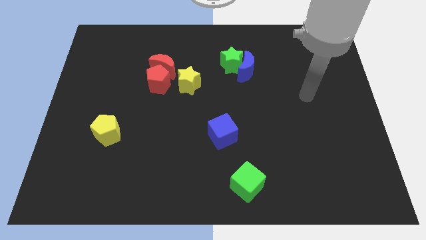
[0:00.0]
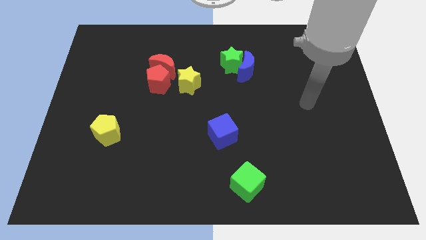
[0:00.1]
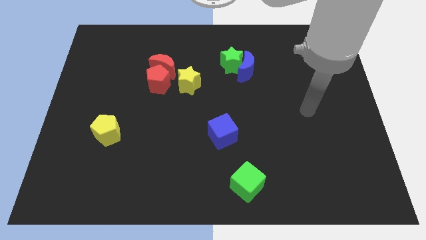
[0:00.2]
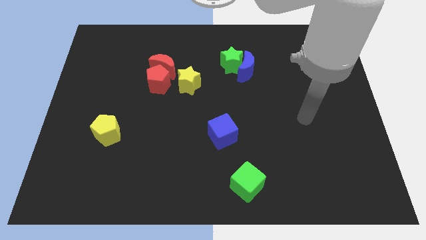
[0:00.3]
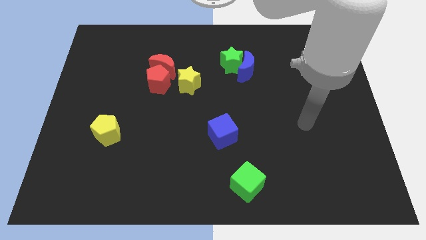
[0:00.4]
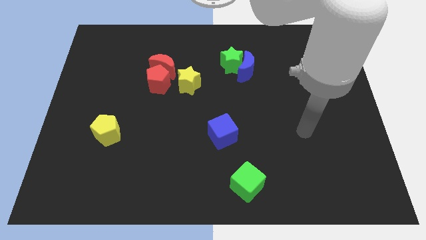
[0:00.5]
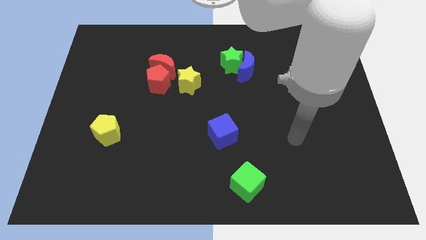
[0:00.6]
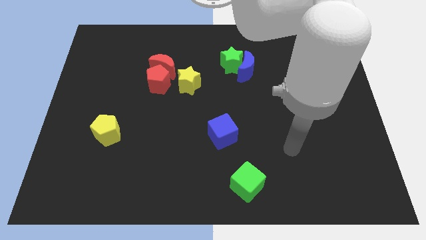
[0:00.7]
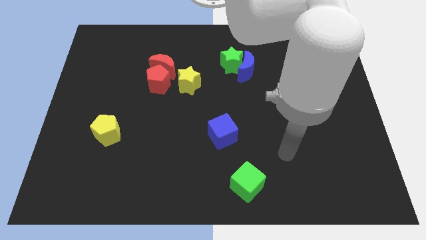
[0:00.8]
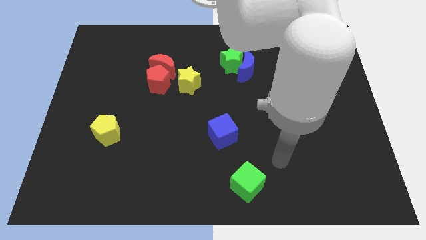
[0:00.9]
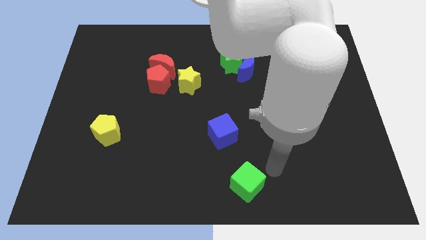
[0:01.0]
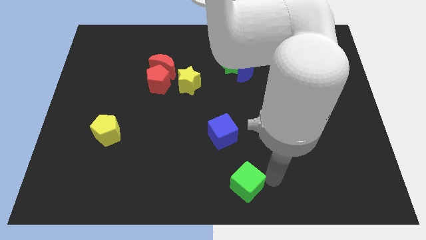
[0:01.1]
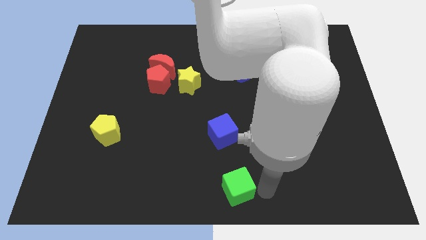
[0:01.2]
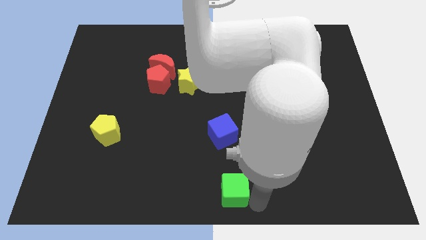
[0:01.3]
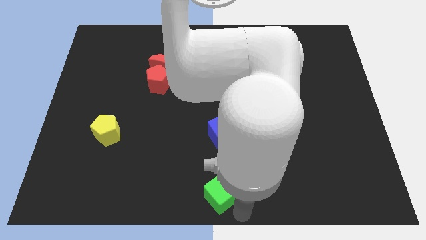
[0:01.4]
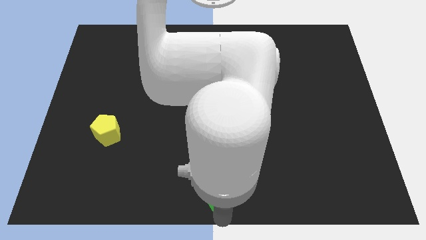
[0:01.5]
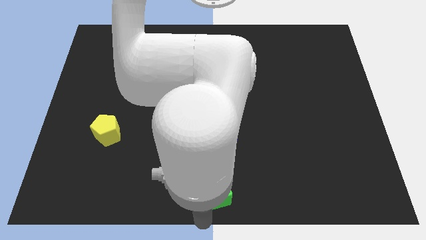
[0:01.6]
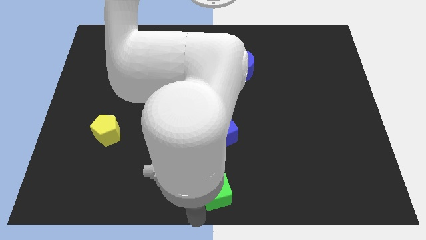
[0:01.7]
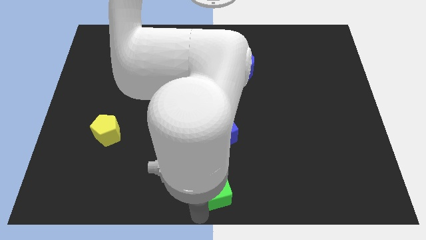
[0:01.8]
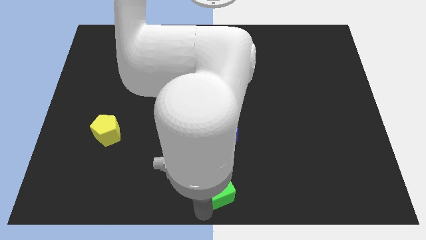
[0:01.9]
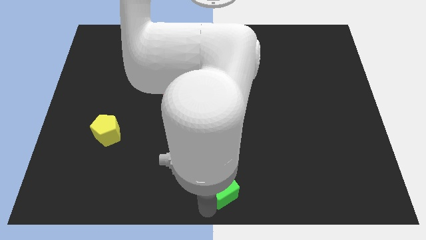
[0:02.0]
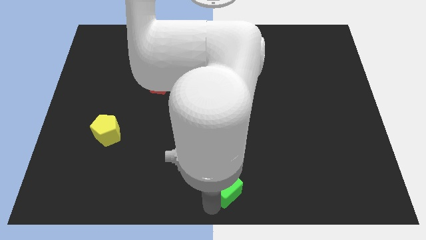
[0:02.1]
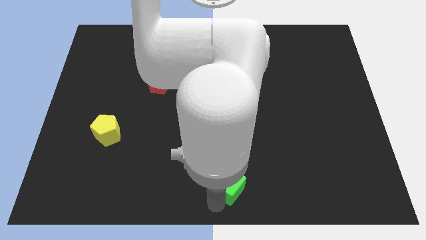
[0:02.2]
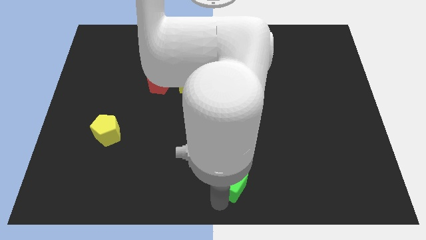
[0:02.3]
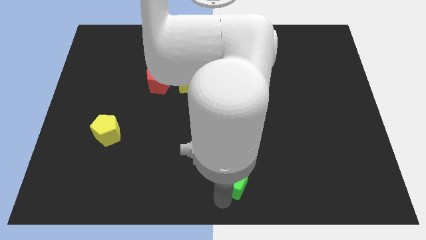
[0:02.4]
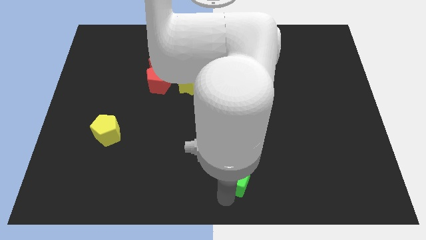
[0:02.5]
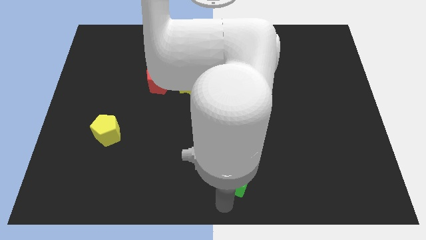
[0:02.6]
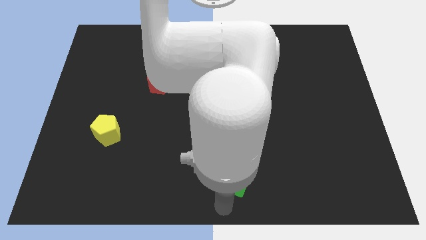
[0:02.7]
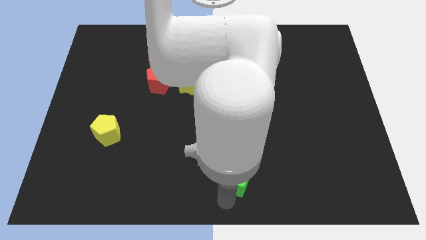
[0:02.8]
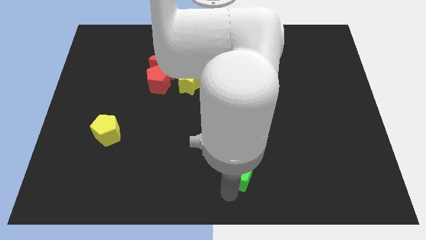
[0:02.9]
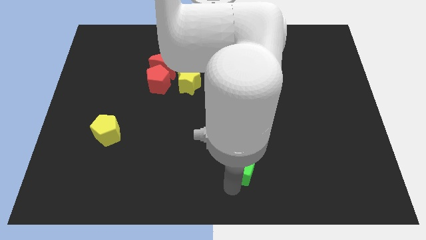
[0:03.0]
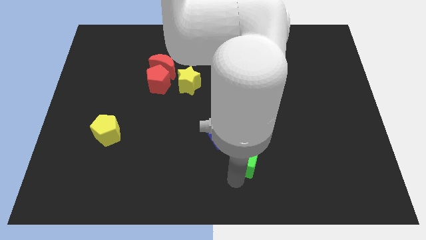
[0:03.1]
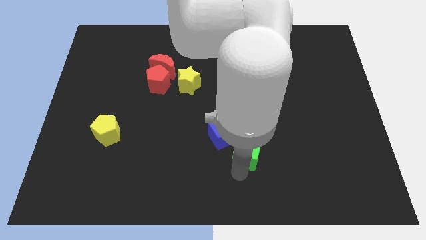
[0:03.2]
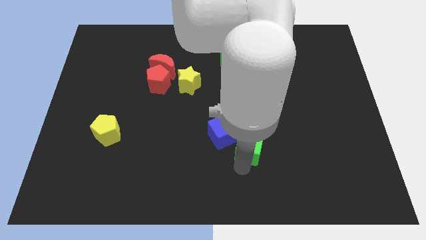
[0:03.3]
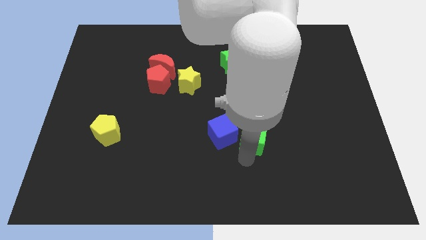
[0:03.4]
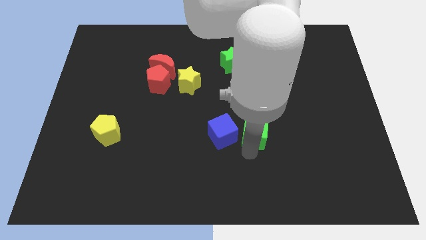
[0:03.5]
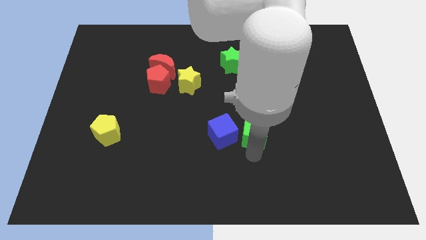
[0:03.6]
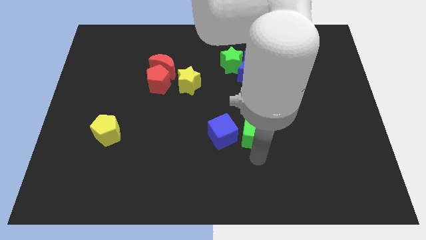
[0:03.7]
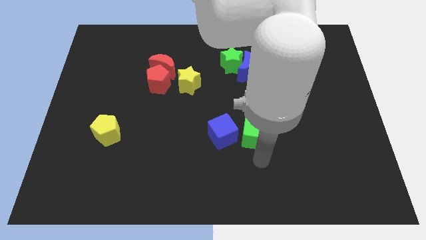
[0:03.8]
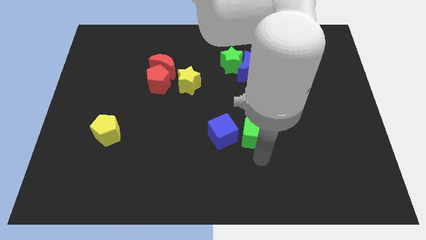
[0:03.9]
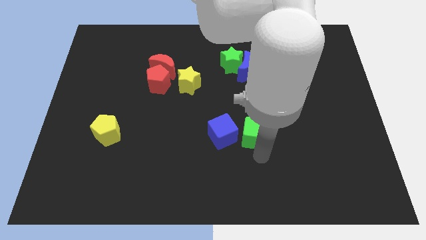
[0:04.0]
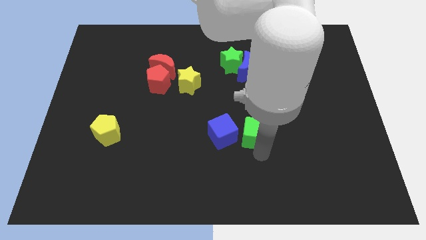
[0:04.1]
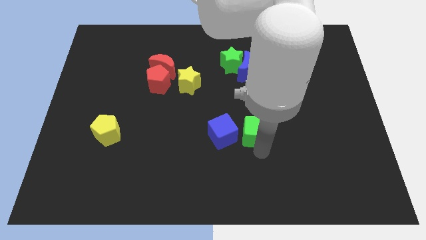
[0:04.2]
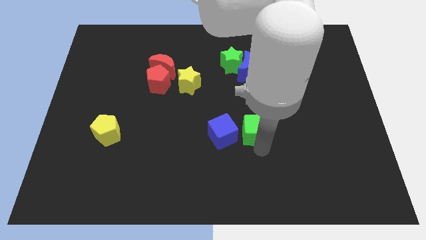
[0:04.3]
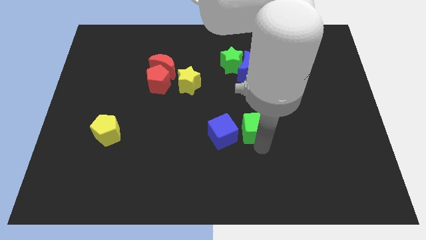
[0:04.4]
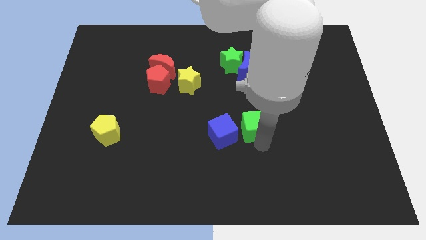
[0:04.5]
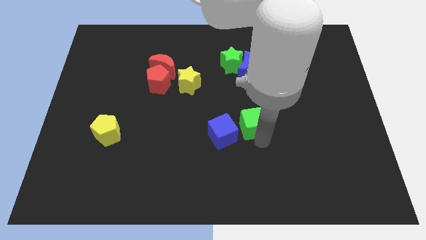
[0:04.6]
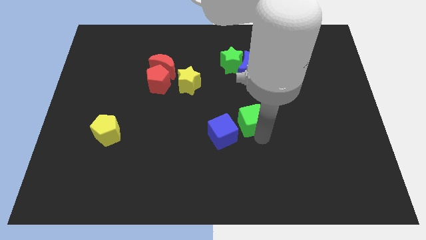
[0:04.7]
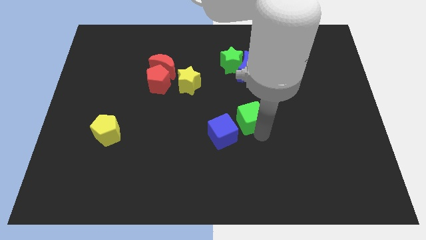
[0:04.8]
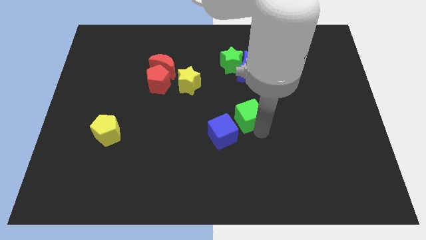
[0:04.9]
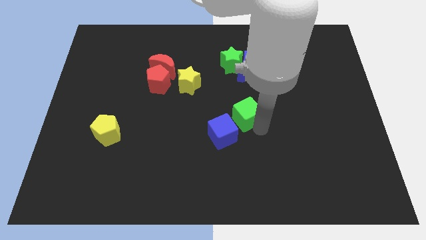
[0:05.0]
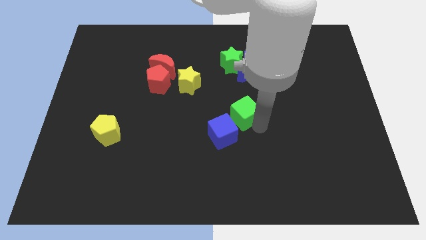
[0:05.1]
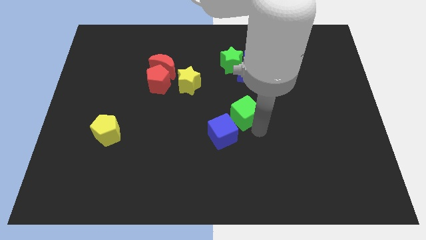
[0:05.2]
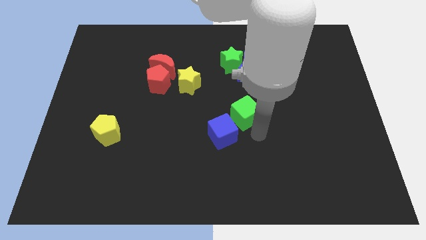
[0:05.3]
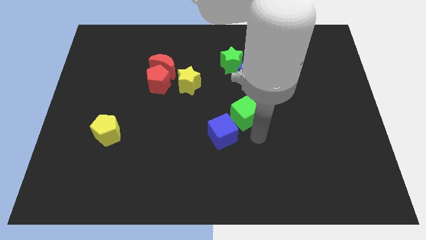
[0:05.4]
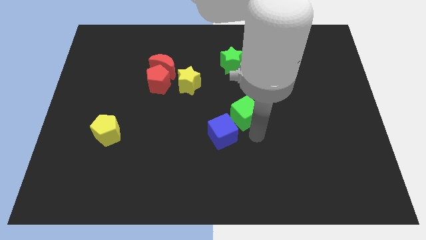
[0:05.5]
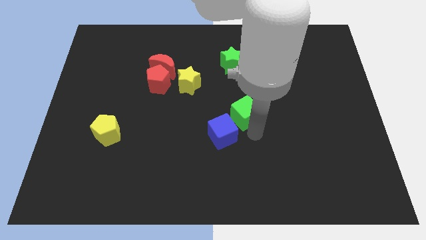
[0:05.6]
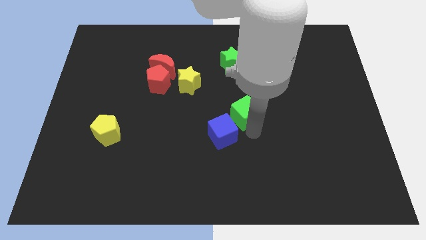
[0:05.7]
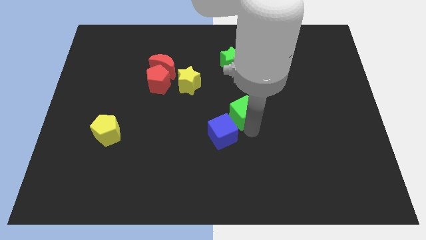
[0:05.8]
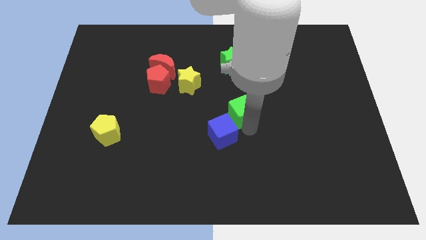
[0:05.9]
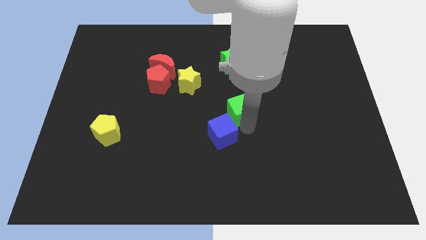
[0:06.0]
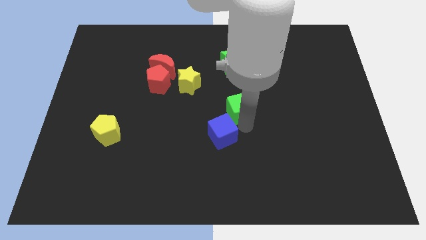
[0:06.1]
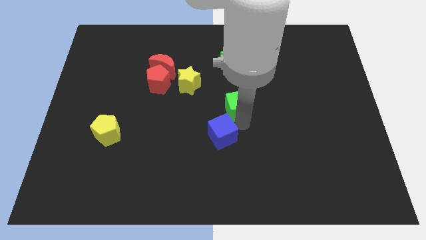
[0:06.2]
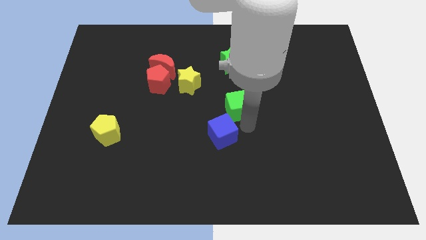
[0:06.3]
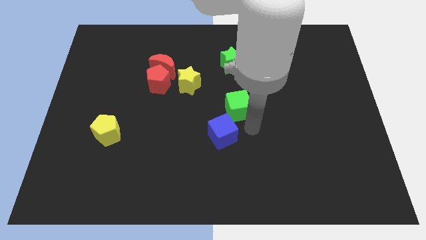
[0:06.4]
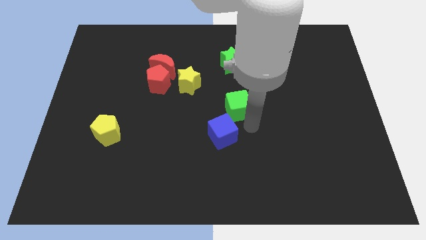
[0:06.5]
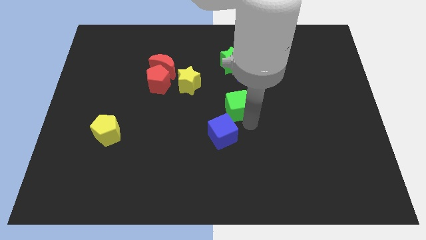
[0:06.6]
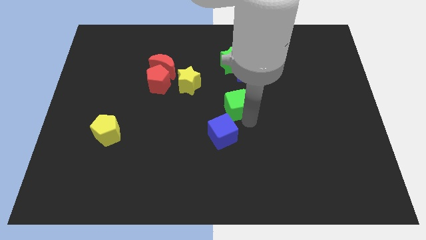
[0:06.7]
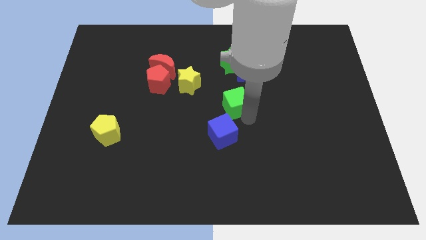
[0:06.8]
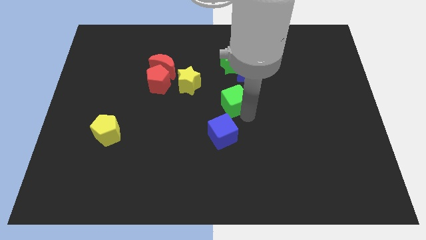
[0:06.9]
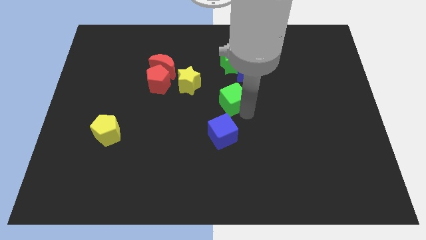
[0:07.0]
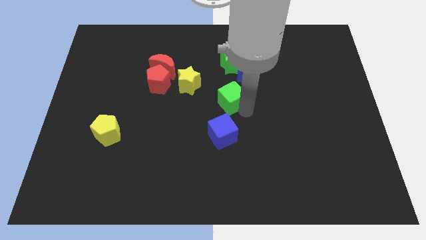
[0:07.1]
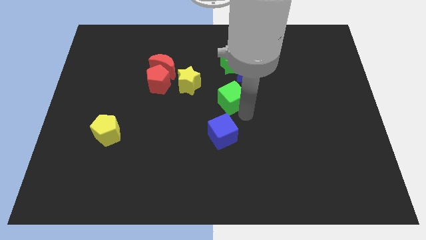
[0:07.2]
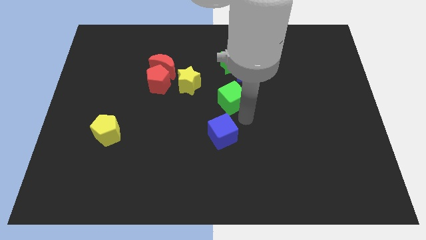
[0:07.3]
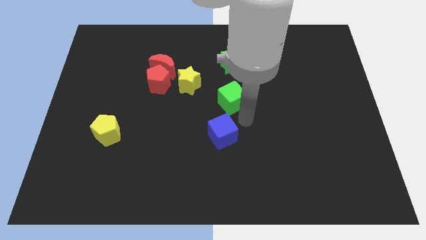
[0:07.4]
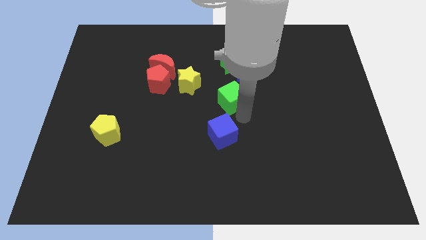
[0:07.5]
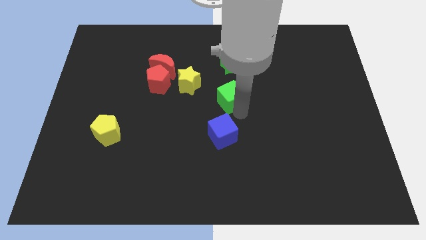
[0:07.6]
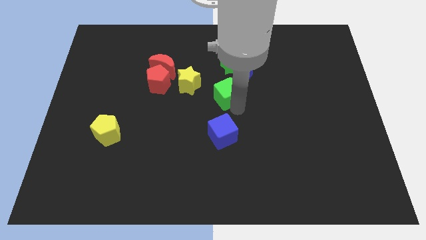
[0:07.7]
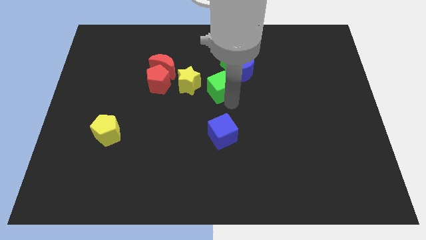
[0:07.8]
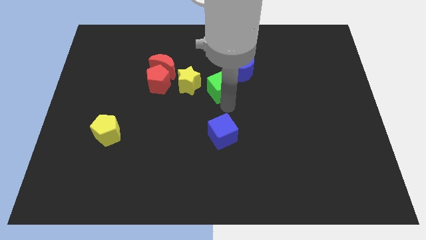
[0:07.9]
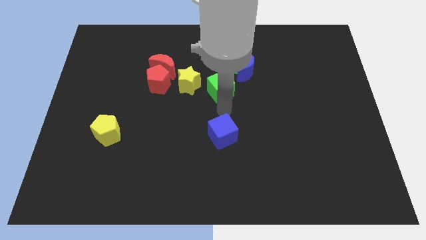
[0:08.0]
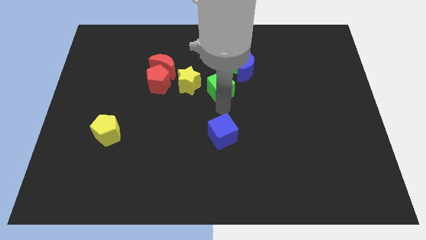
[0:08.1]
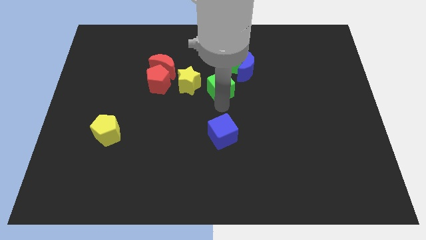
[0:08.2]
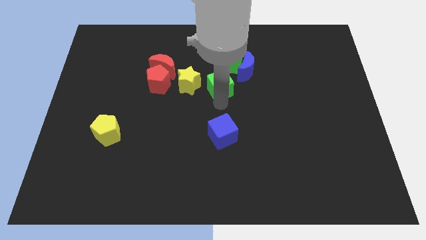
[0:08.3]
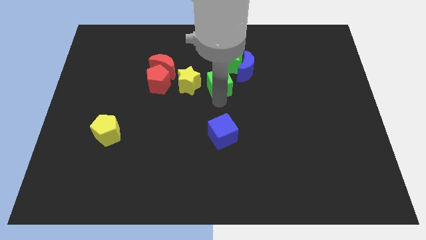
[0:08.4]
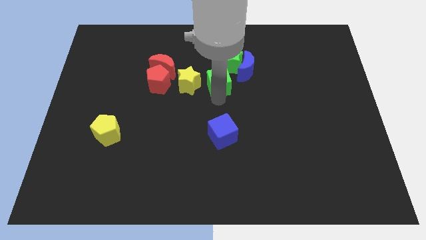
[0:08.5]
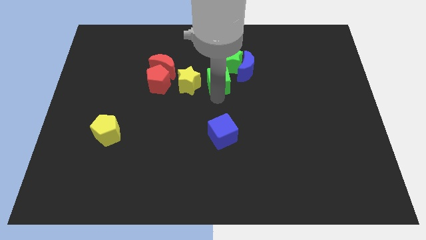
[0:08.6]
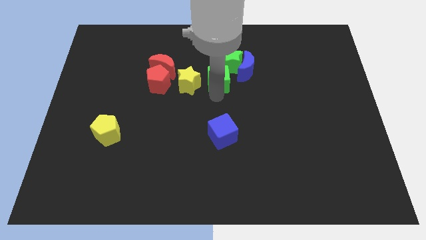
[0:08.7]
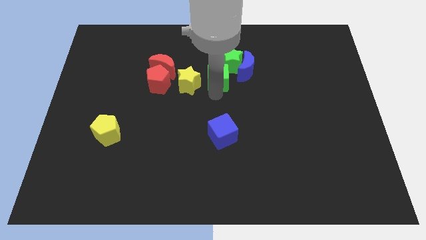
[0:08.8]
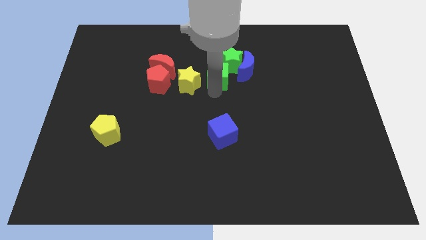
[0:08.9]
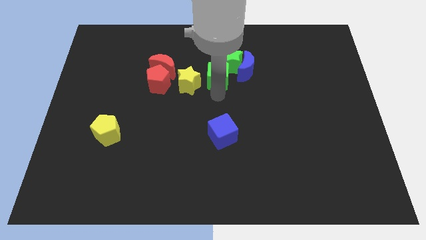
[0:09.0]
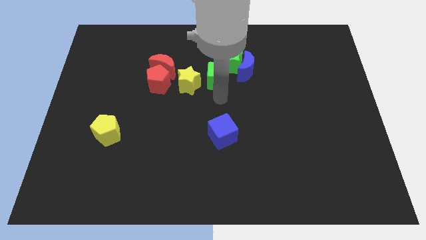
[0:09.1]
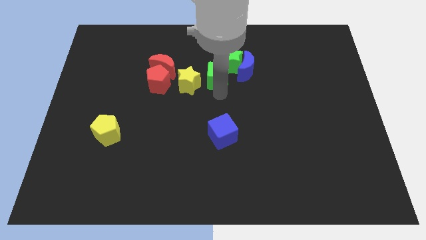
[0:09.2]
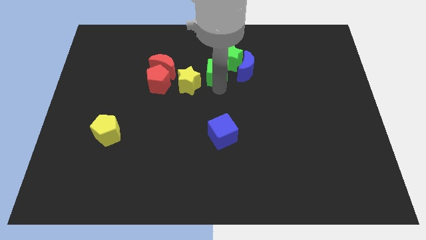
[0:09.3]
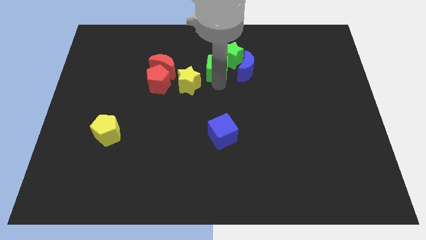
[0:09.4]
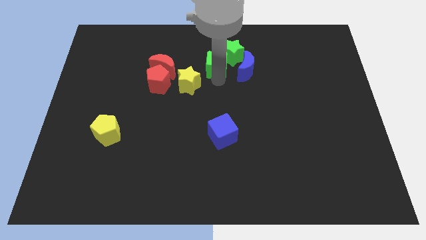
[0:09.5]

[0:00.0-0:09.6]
move the green cube to the top left side of the blue moon
